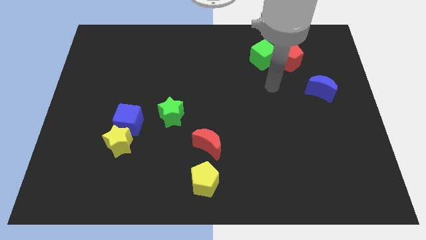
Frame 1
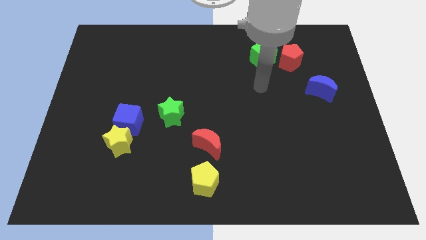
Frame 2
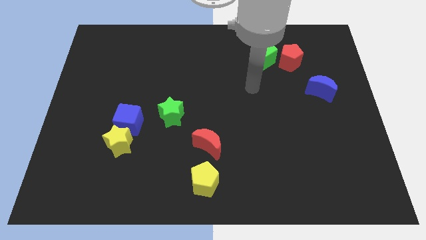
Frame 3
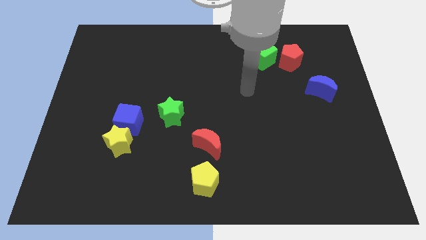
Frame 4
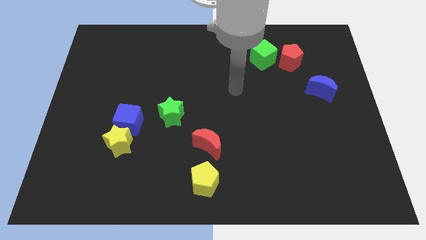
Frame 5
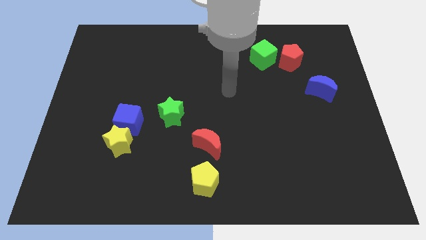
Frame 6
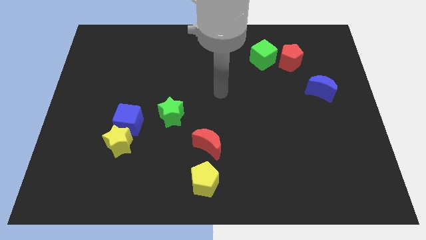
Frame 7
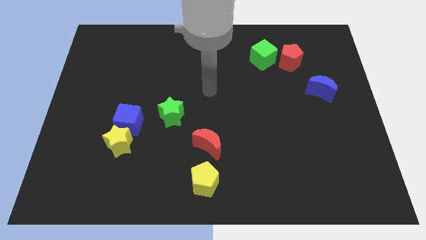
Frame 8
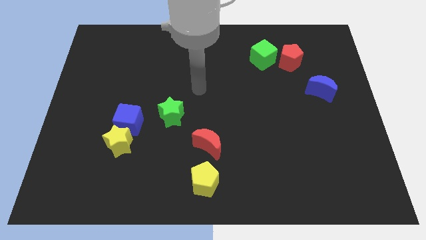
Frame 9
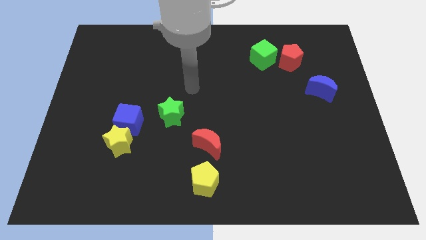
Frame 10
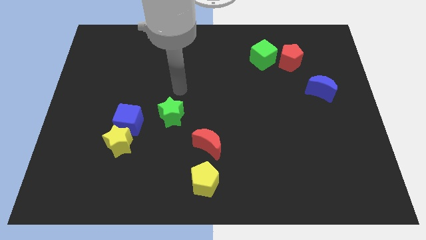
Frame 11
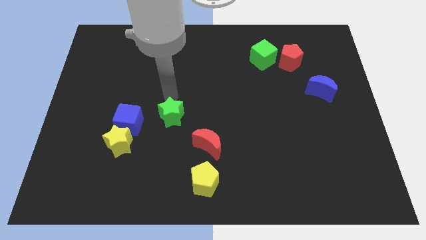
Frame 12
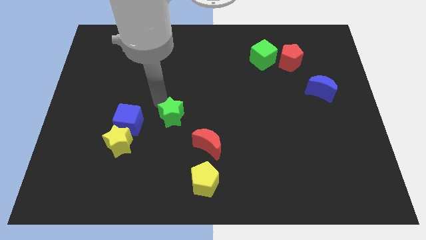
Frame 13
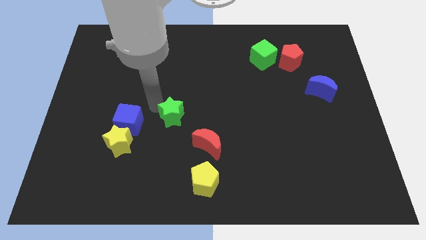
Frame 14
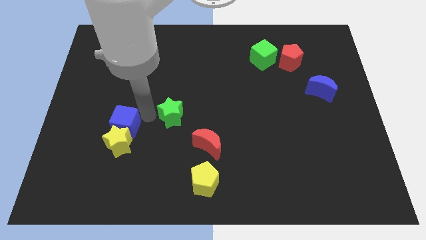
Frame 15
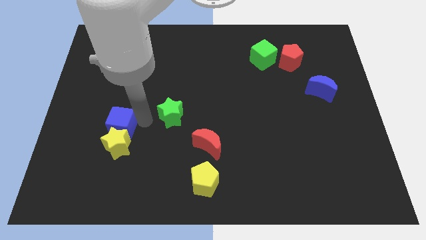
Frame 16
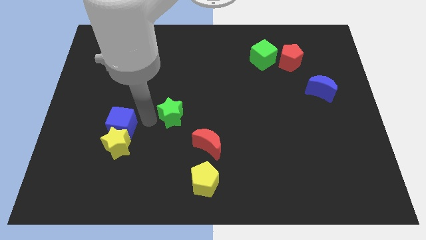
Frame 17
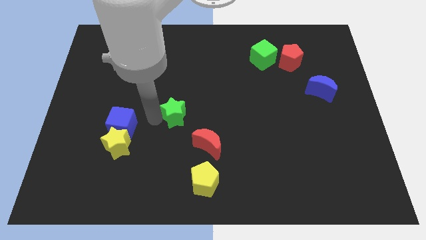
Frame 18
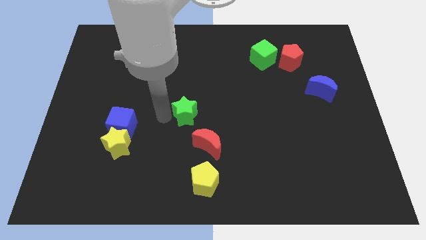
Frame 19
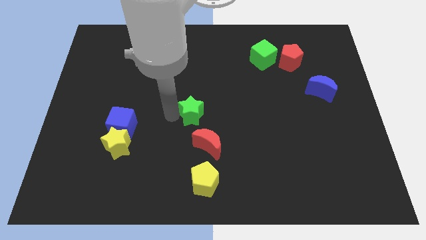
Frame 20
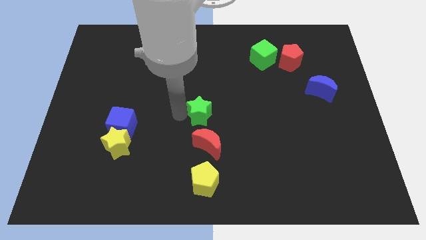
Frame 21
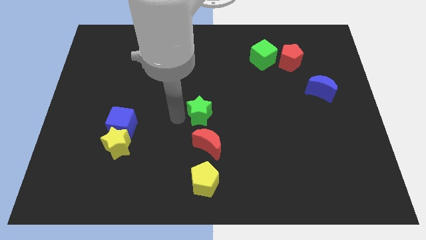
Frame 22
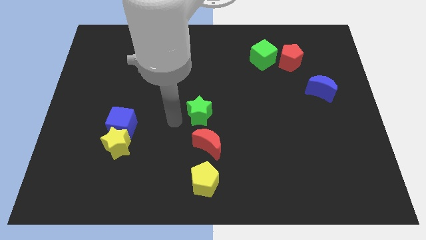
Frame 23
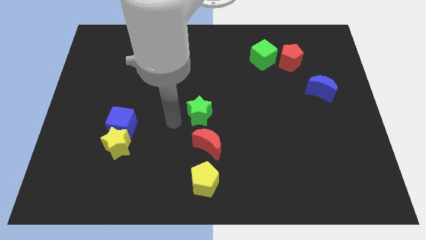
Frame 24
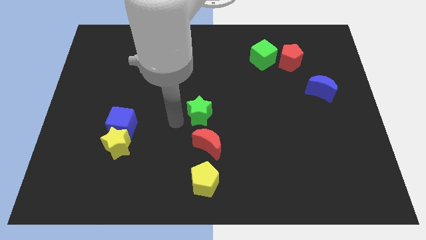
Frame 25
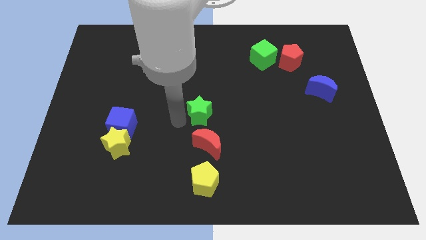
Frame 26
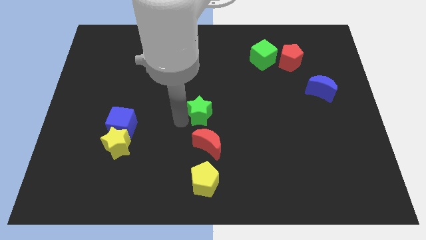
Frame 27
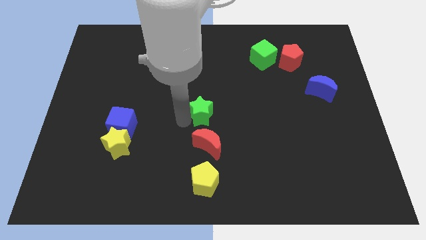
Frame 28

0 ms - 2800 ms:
slightly slide the green star right

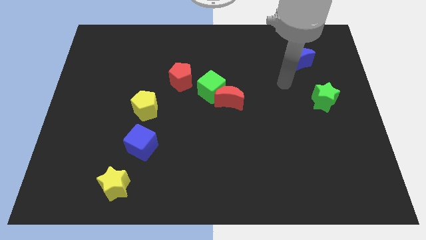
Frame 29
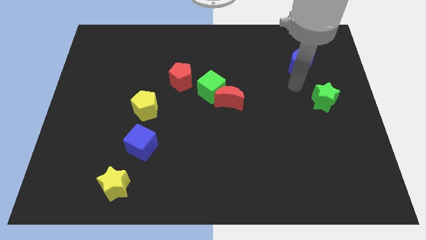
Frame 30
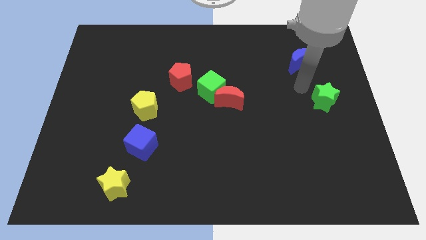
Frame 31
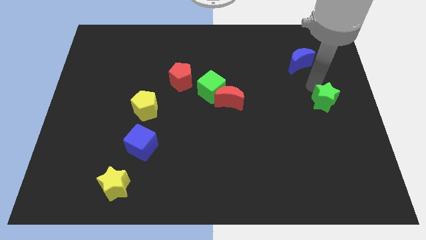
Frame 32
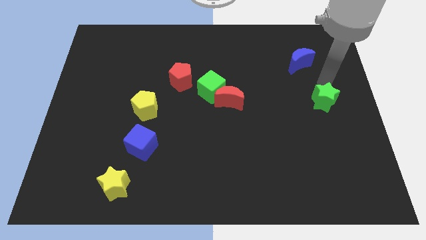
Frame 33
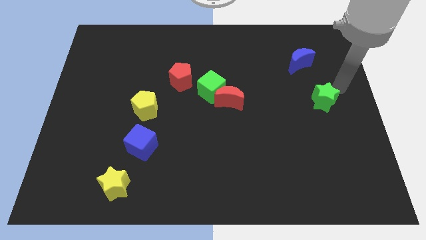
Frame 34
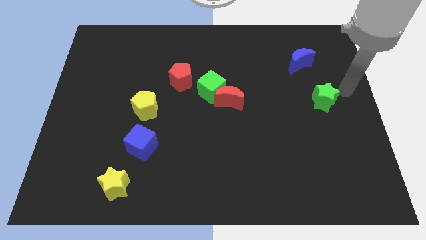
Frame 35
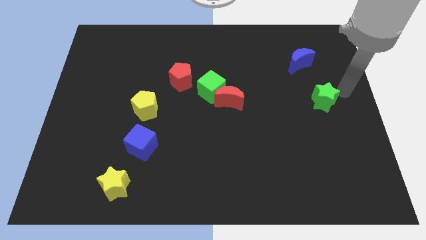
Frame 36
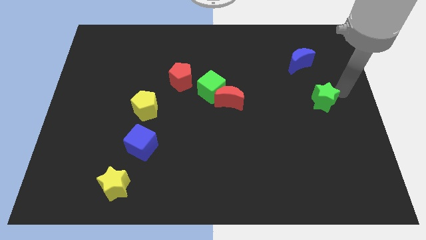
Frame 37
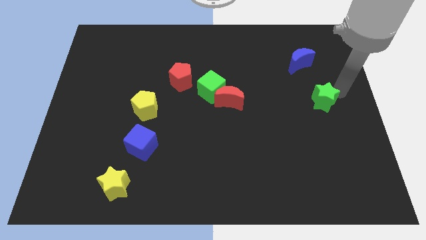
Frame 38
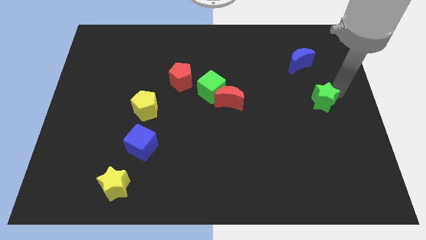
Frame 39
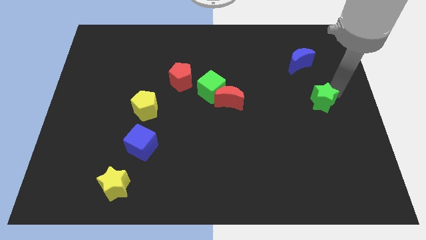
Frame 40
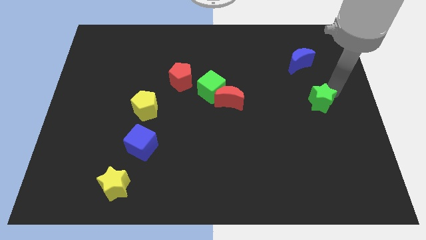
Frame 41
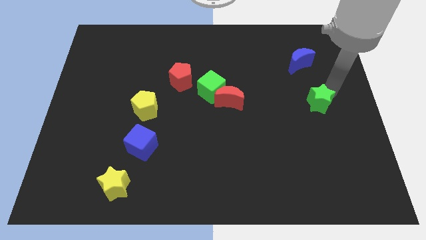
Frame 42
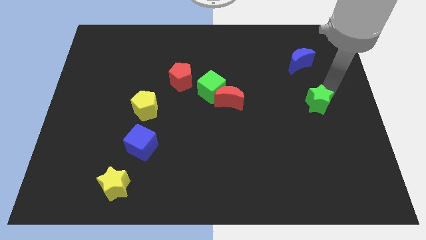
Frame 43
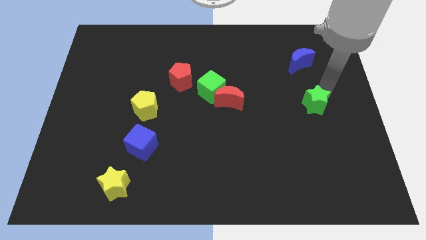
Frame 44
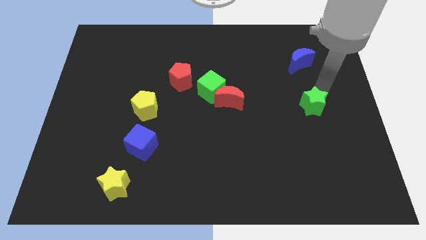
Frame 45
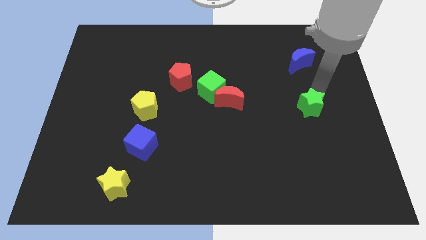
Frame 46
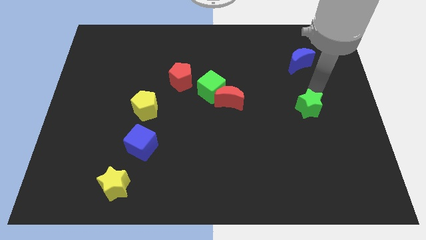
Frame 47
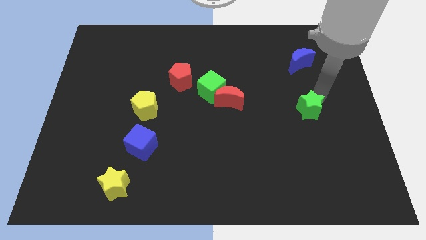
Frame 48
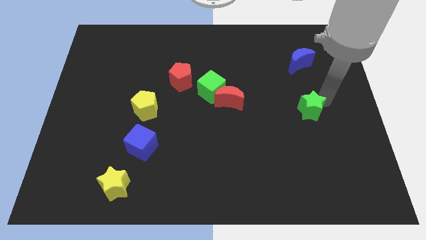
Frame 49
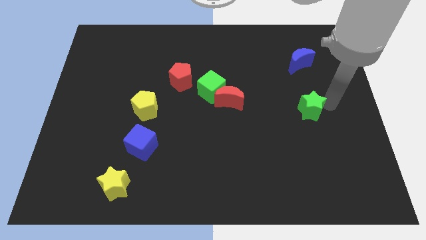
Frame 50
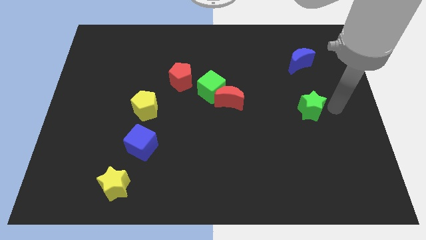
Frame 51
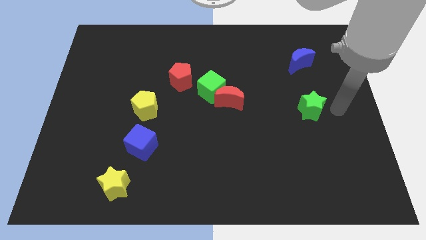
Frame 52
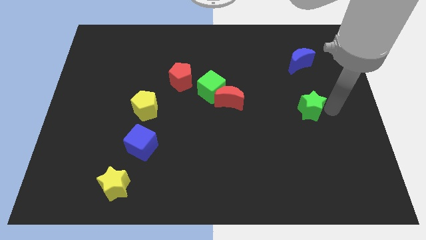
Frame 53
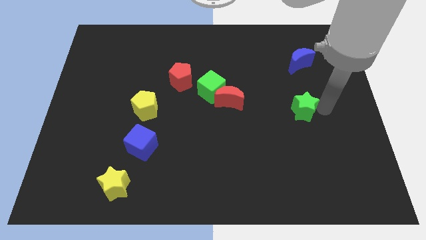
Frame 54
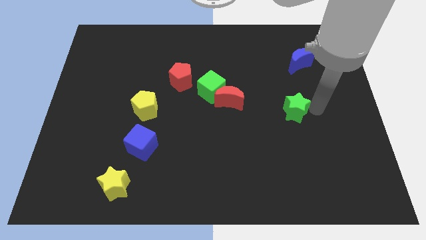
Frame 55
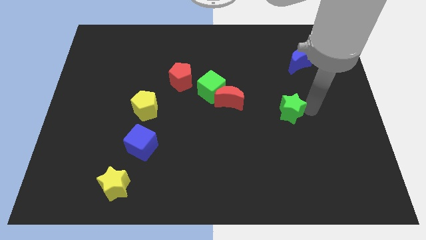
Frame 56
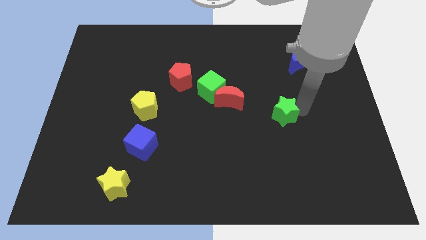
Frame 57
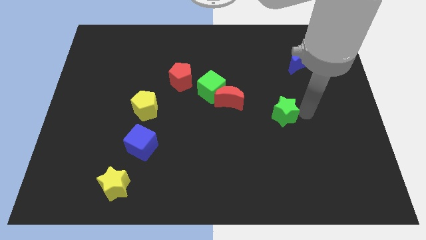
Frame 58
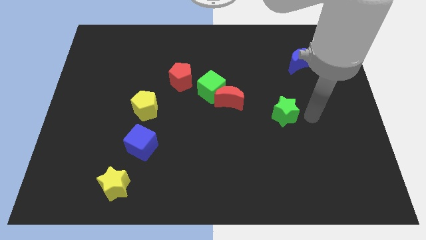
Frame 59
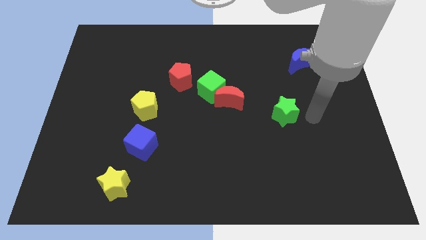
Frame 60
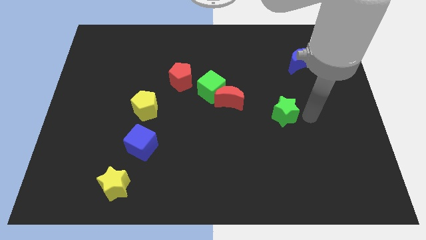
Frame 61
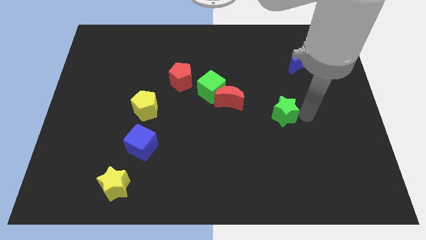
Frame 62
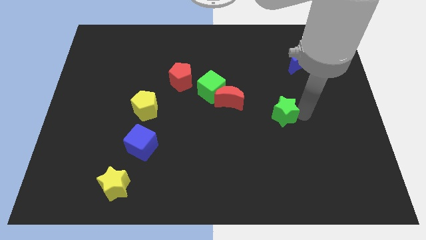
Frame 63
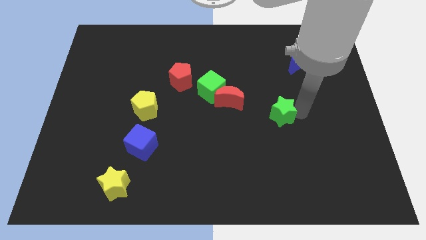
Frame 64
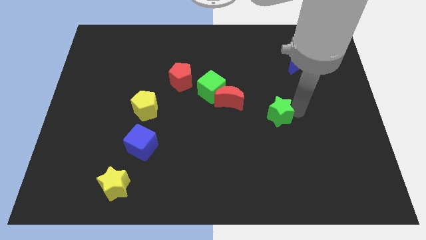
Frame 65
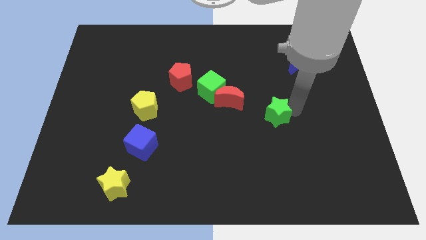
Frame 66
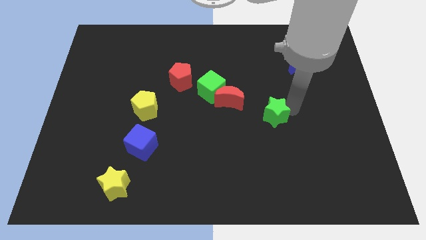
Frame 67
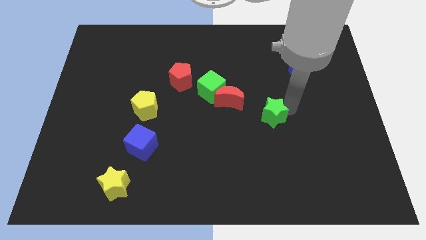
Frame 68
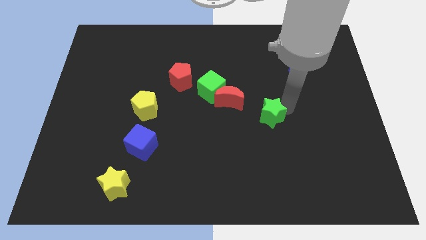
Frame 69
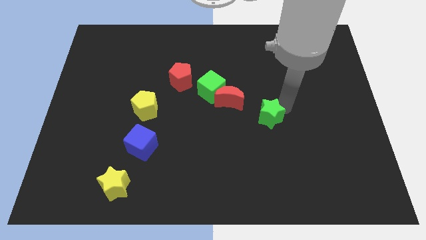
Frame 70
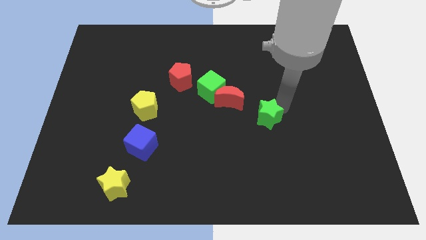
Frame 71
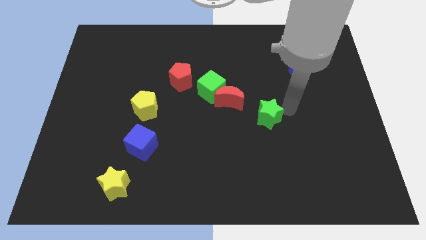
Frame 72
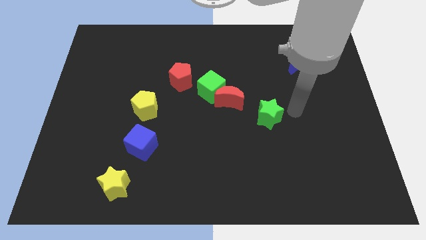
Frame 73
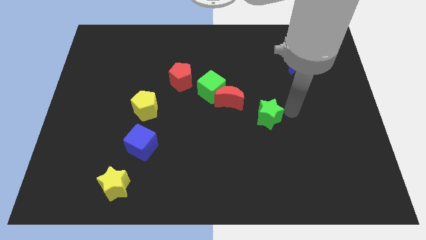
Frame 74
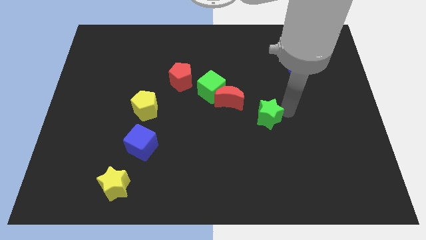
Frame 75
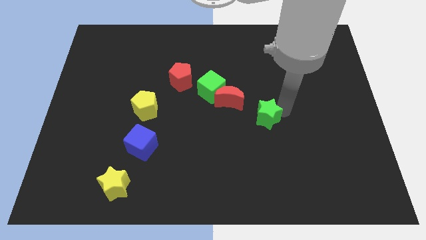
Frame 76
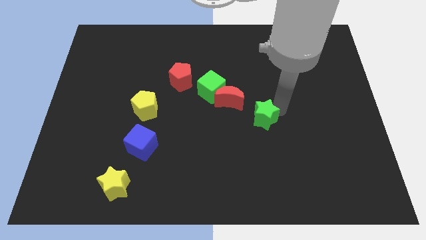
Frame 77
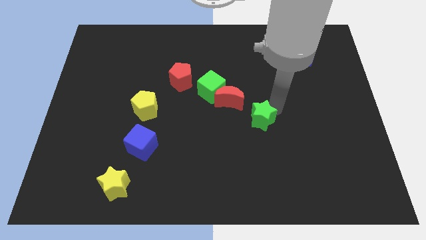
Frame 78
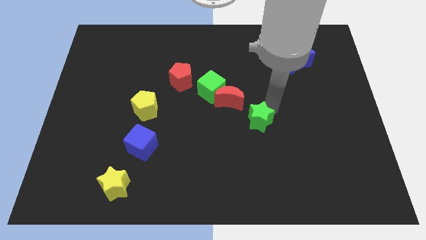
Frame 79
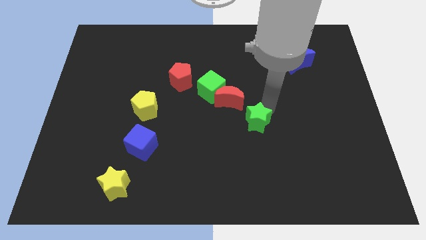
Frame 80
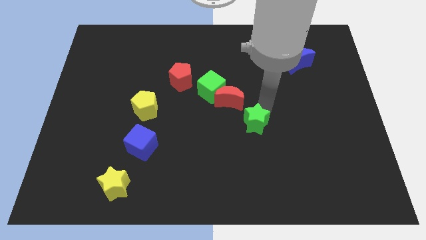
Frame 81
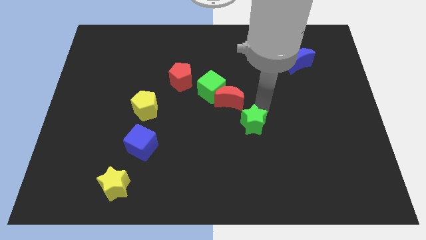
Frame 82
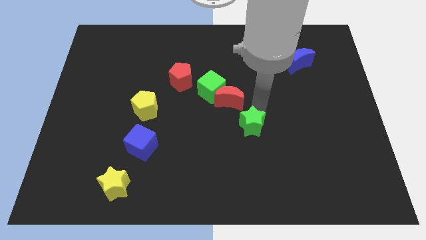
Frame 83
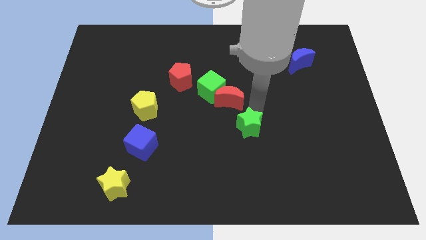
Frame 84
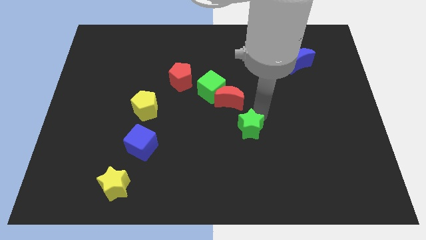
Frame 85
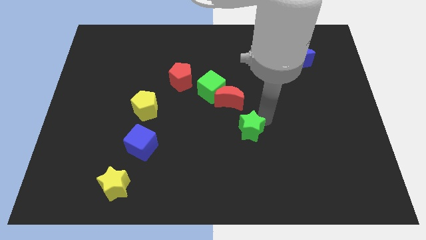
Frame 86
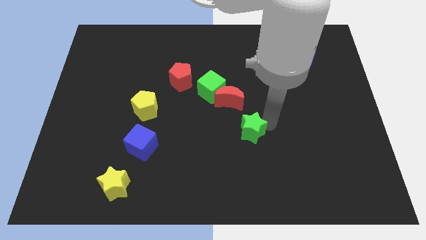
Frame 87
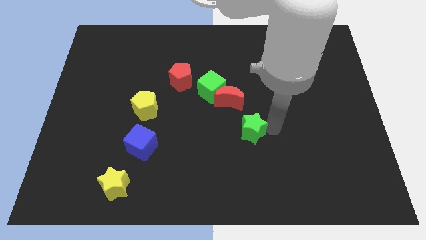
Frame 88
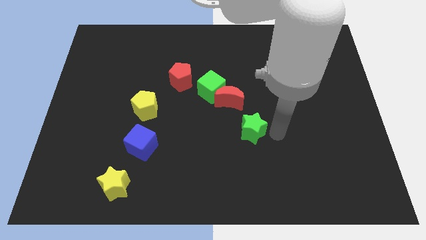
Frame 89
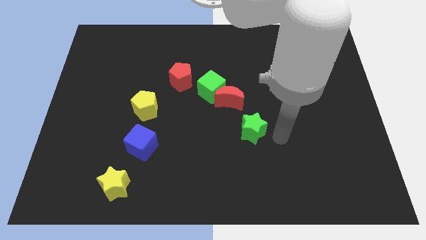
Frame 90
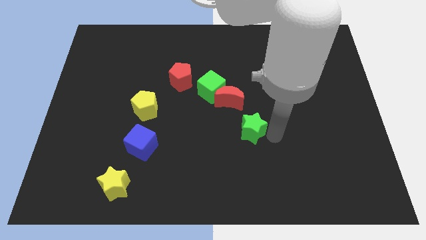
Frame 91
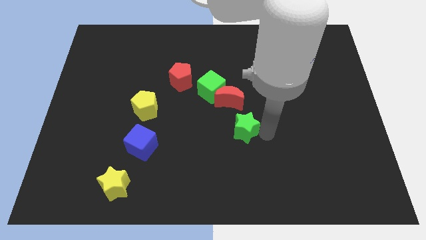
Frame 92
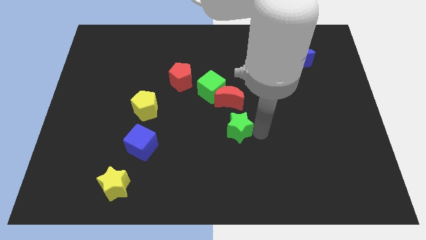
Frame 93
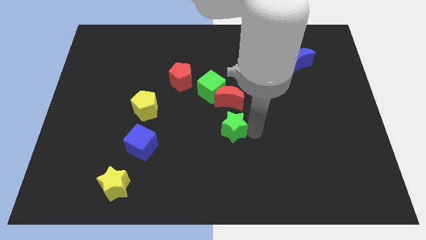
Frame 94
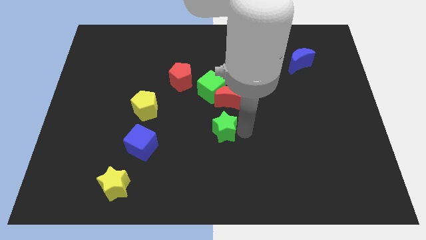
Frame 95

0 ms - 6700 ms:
push the green star left
